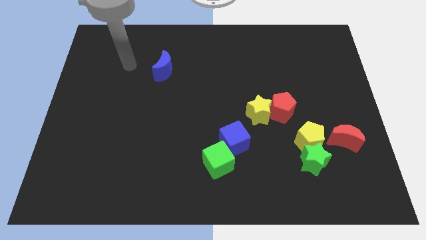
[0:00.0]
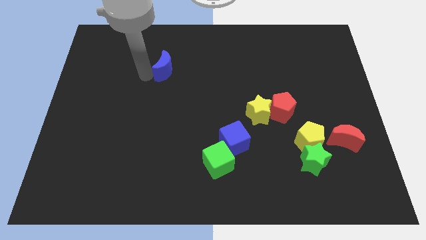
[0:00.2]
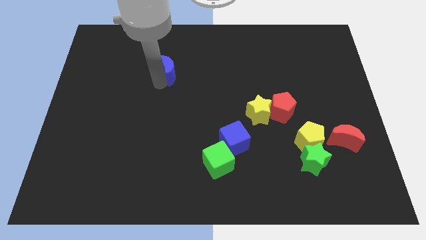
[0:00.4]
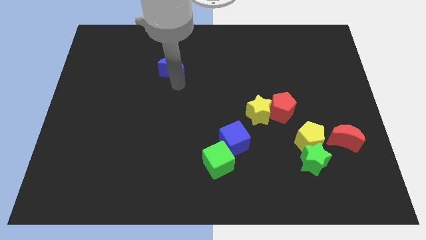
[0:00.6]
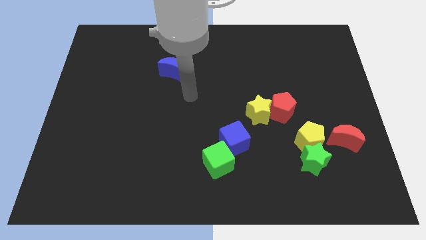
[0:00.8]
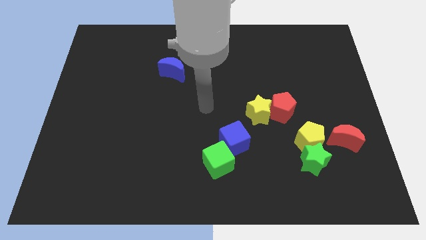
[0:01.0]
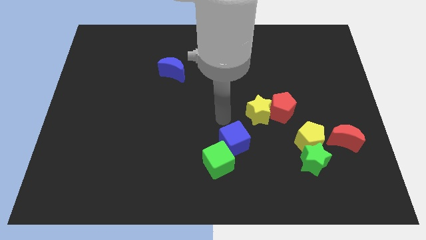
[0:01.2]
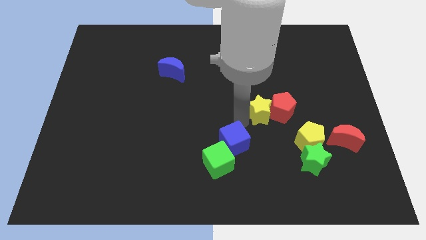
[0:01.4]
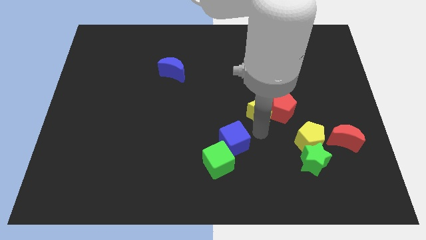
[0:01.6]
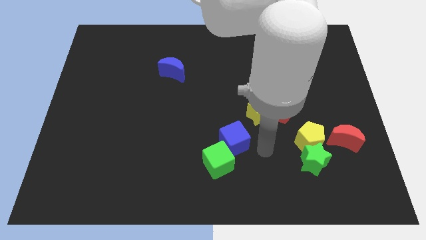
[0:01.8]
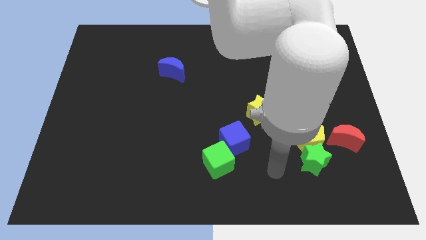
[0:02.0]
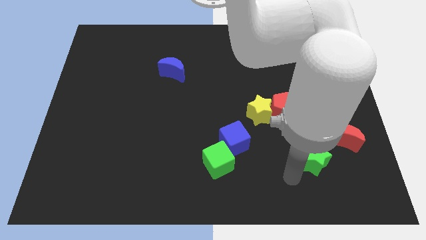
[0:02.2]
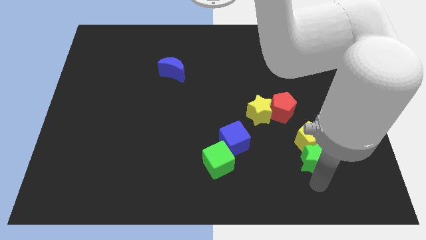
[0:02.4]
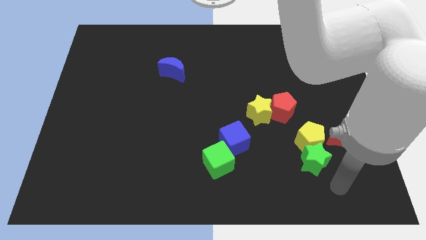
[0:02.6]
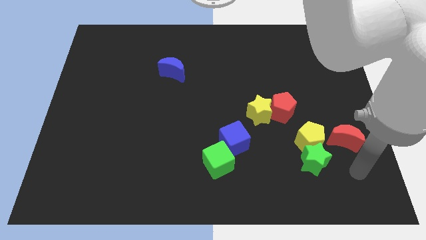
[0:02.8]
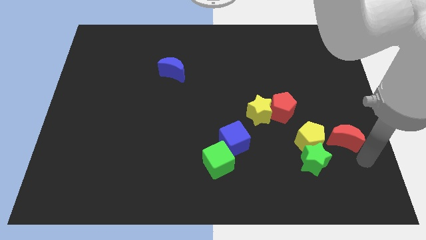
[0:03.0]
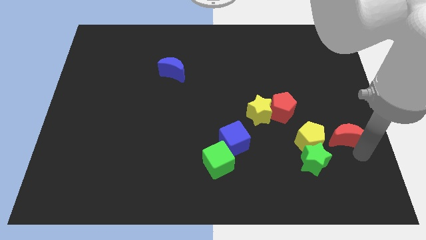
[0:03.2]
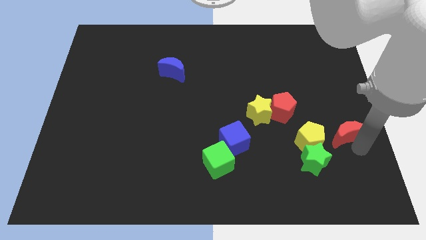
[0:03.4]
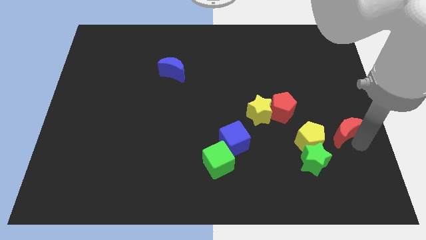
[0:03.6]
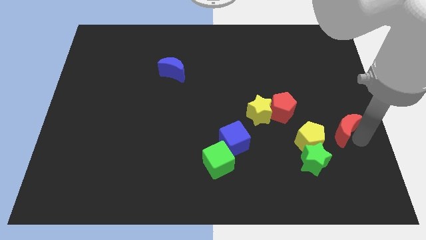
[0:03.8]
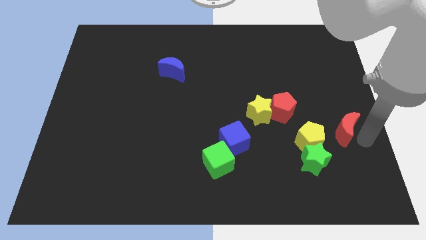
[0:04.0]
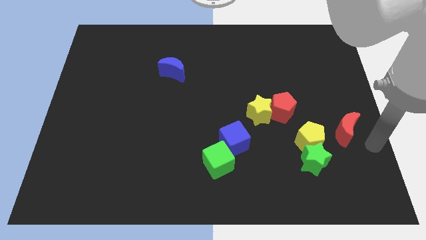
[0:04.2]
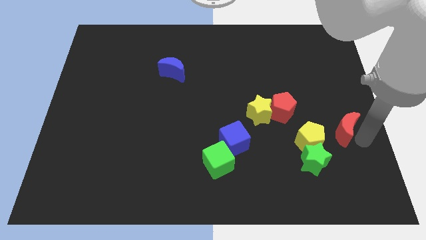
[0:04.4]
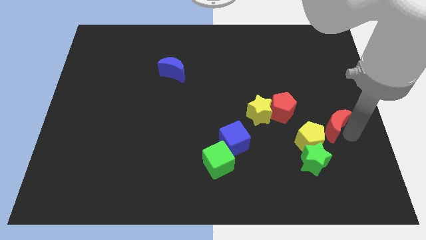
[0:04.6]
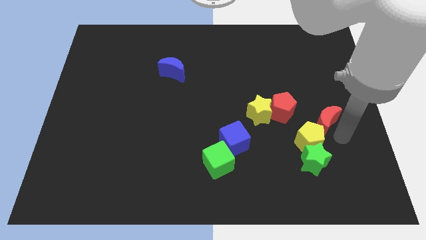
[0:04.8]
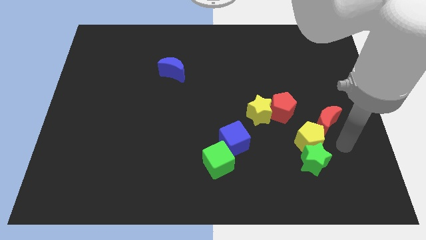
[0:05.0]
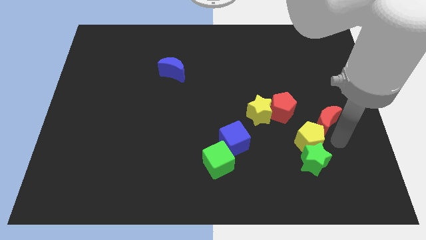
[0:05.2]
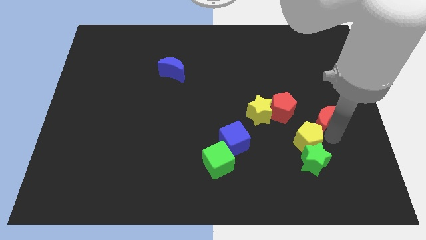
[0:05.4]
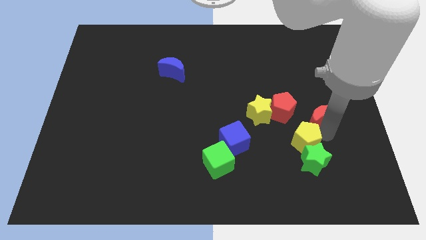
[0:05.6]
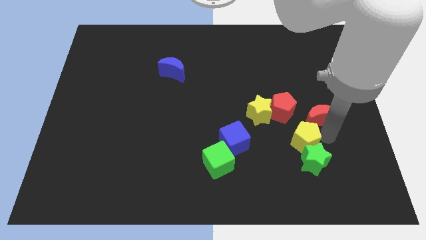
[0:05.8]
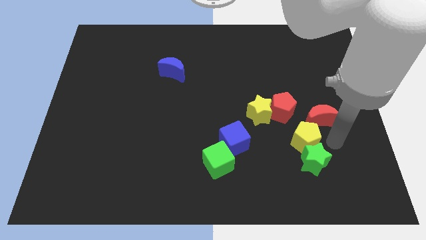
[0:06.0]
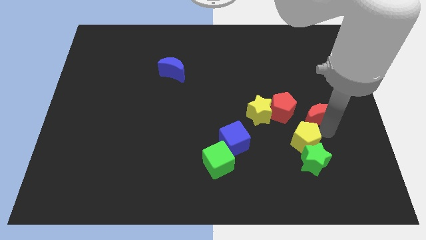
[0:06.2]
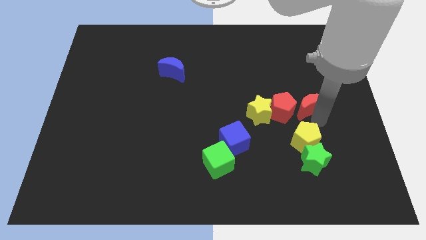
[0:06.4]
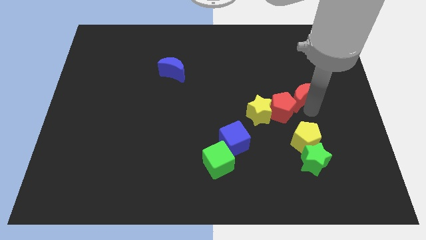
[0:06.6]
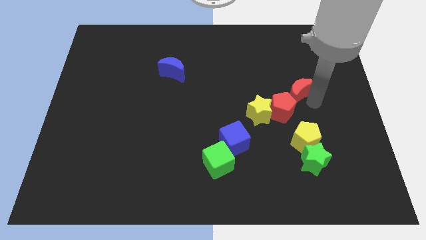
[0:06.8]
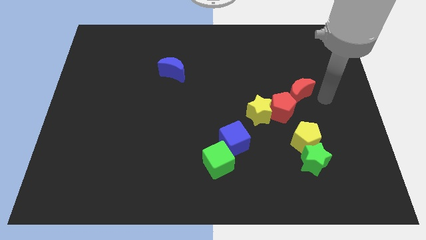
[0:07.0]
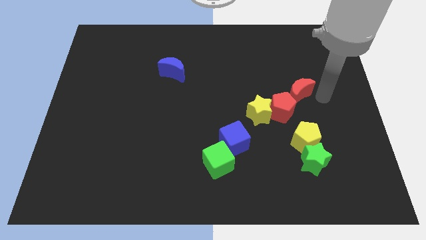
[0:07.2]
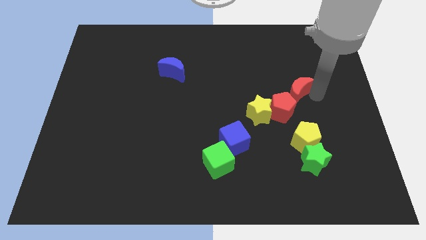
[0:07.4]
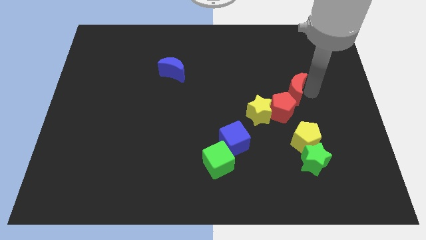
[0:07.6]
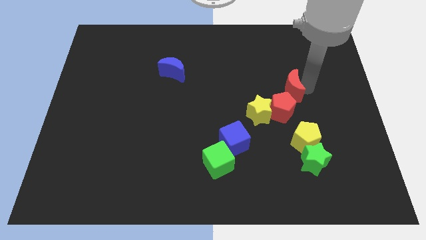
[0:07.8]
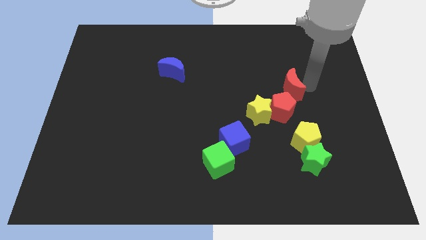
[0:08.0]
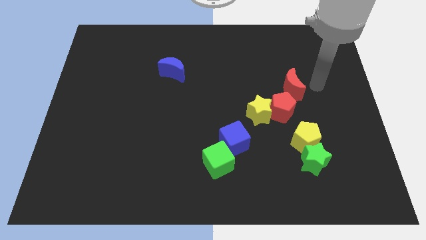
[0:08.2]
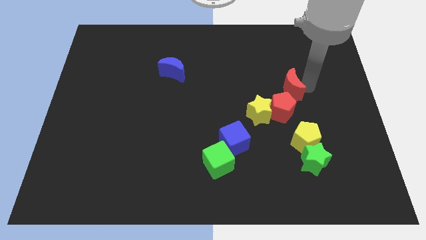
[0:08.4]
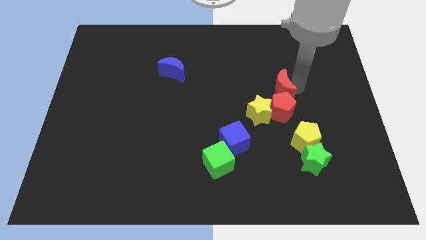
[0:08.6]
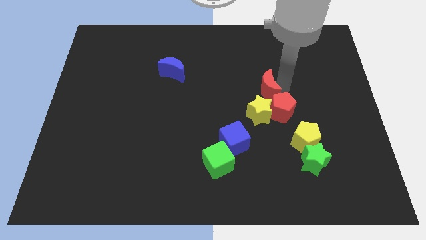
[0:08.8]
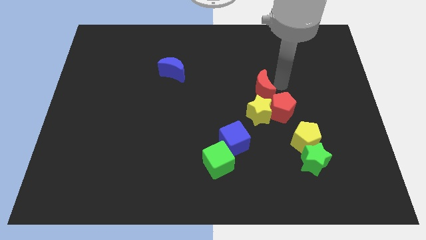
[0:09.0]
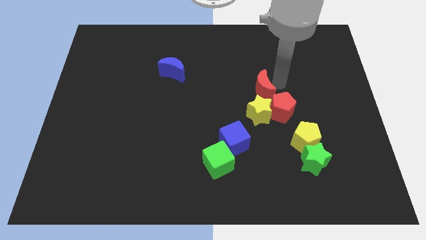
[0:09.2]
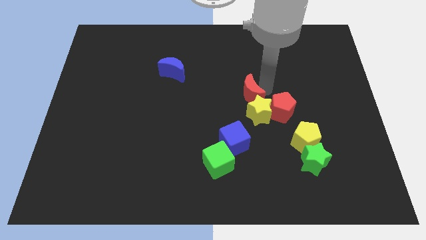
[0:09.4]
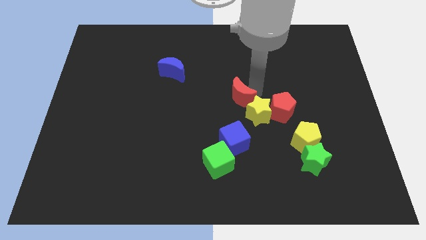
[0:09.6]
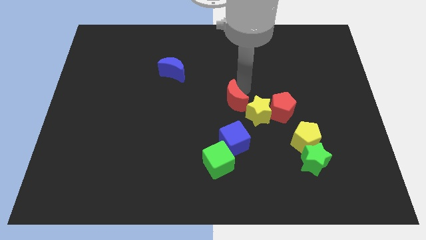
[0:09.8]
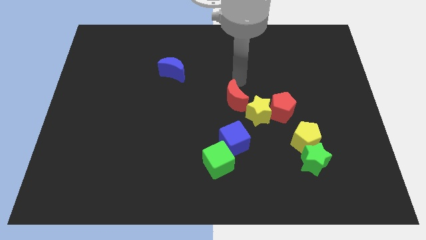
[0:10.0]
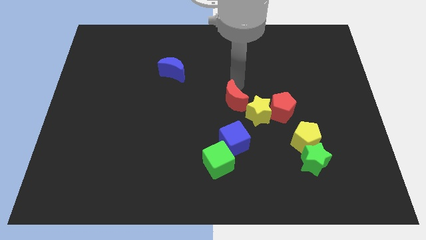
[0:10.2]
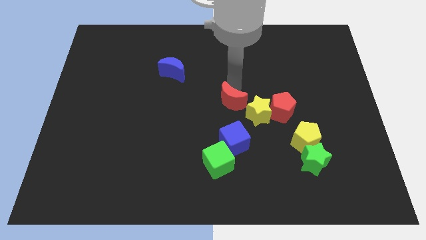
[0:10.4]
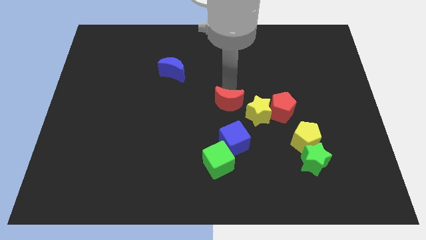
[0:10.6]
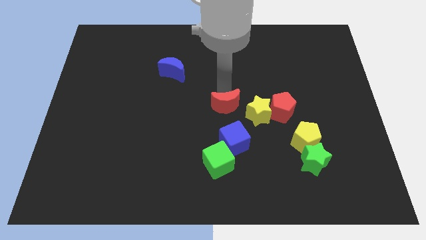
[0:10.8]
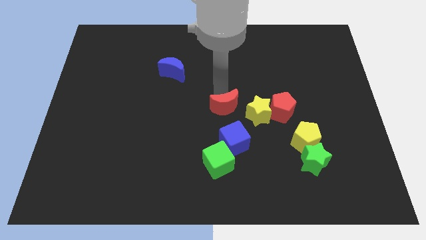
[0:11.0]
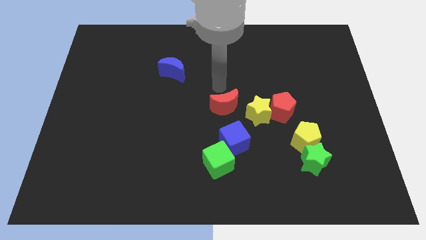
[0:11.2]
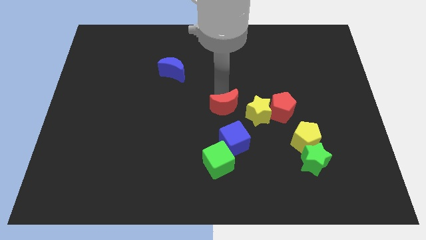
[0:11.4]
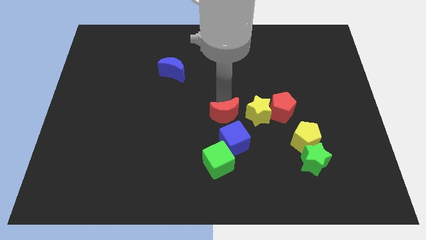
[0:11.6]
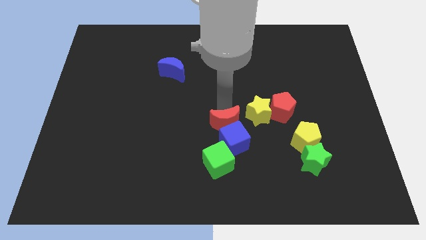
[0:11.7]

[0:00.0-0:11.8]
push the red moon to the blue cube

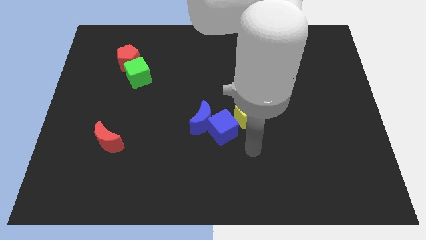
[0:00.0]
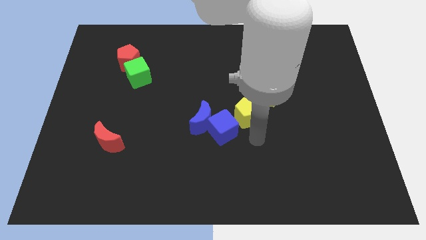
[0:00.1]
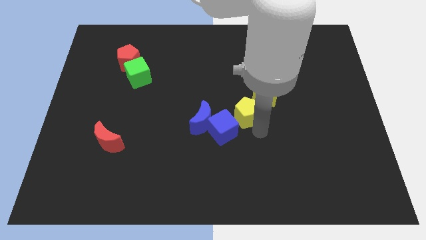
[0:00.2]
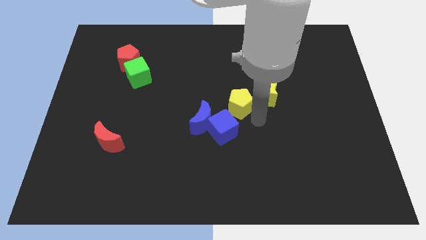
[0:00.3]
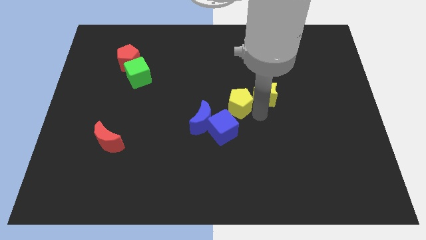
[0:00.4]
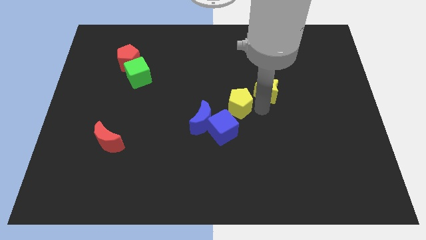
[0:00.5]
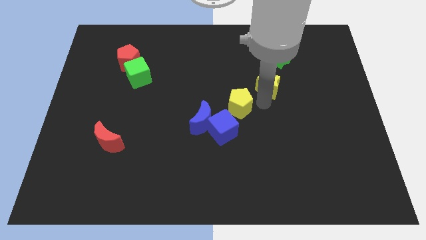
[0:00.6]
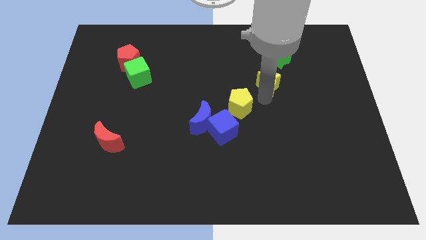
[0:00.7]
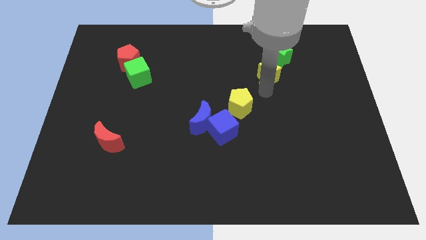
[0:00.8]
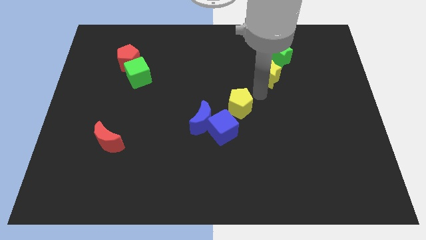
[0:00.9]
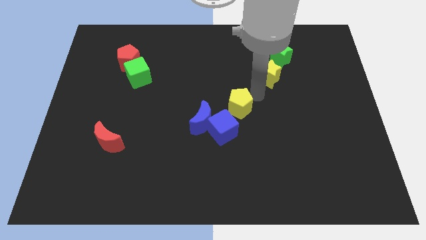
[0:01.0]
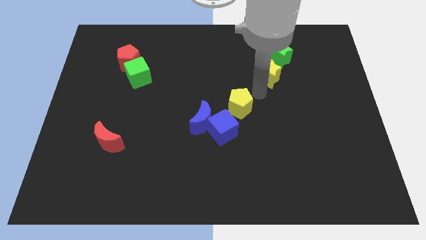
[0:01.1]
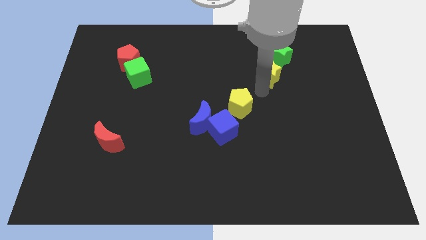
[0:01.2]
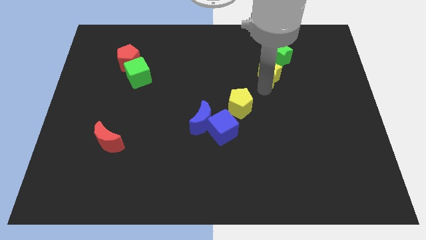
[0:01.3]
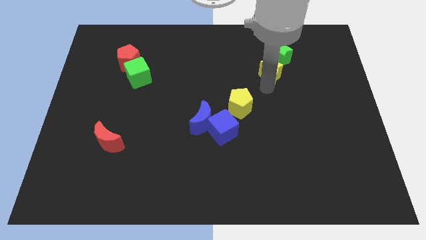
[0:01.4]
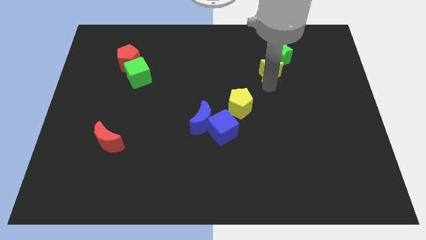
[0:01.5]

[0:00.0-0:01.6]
slide the yellow star close to the green star

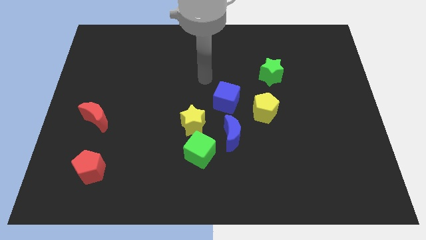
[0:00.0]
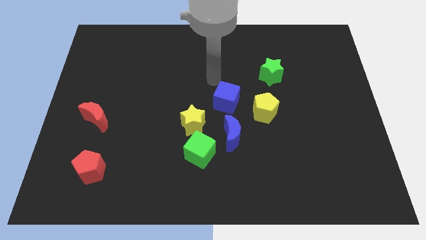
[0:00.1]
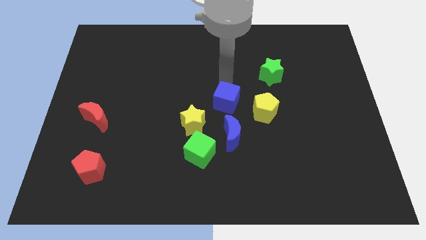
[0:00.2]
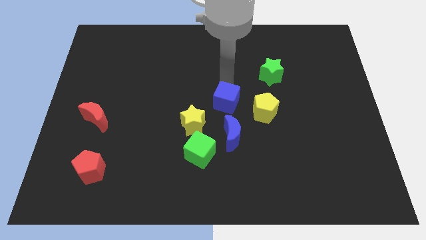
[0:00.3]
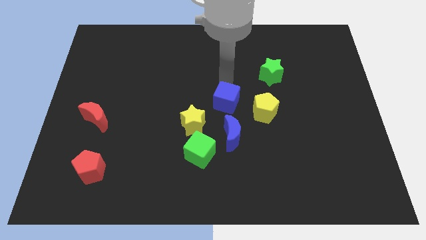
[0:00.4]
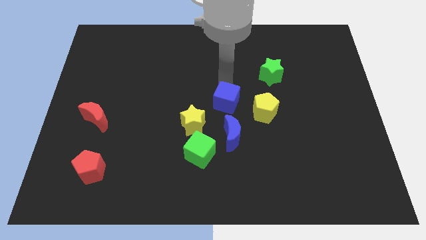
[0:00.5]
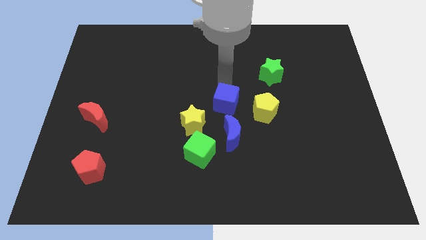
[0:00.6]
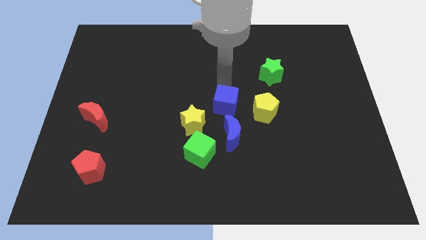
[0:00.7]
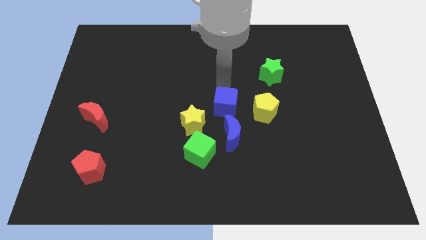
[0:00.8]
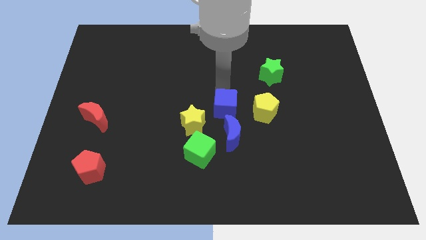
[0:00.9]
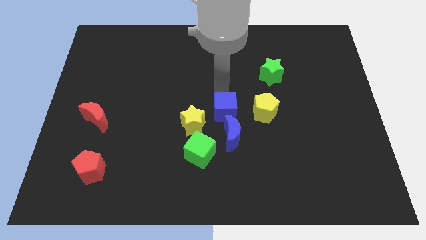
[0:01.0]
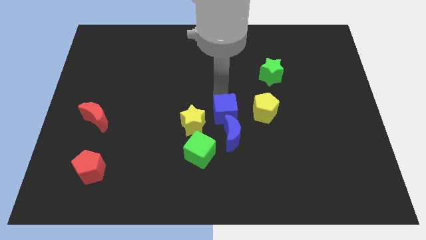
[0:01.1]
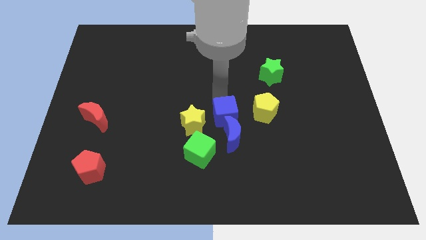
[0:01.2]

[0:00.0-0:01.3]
slide the blue cube close to the blue moon
